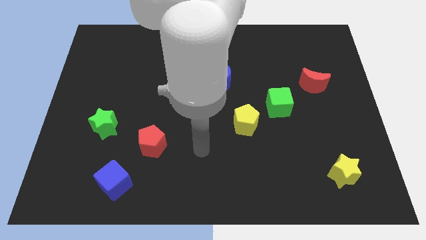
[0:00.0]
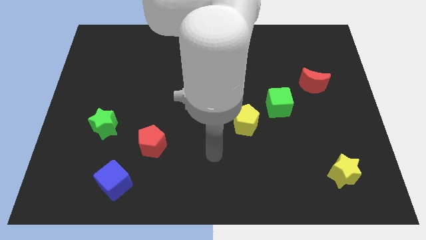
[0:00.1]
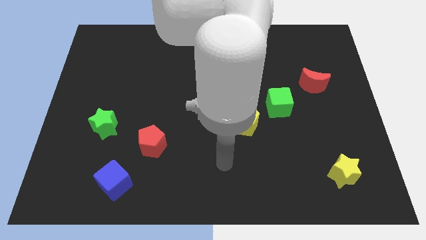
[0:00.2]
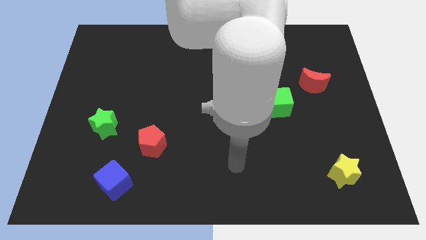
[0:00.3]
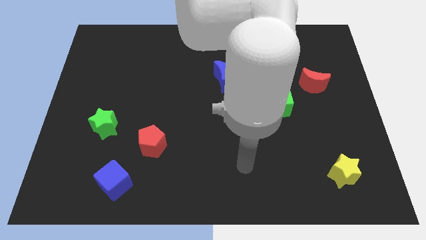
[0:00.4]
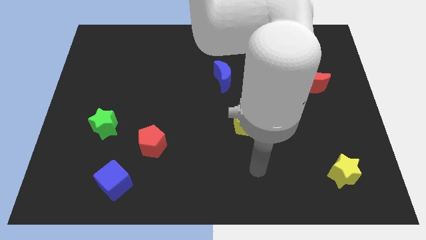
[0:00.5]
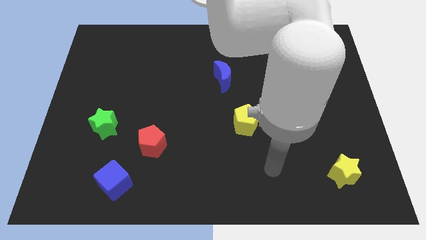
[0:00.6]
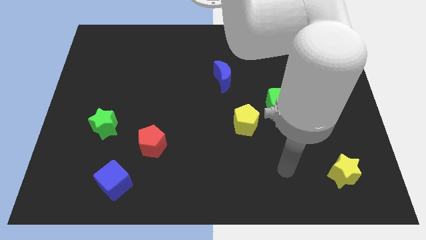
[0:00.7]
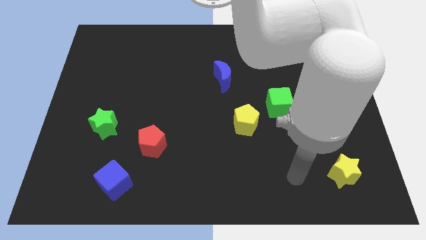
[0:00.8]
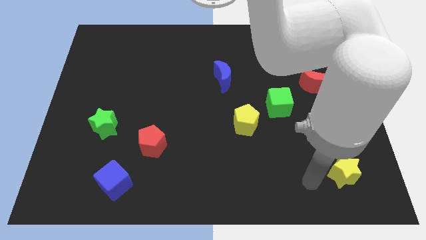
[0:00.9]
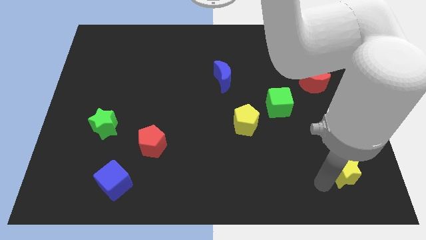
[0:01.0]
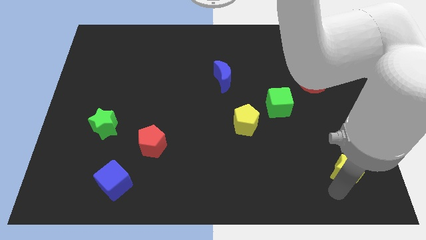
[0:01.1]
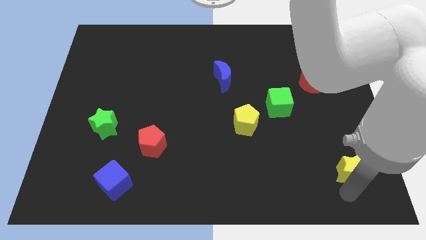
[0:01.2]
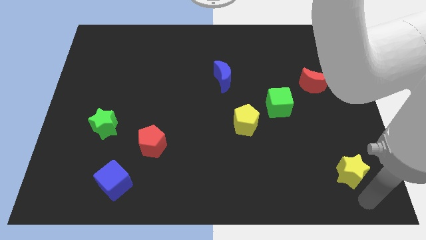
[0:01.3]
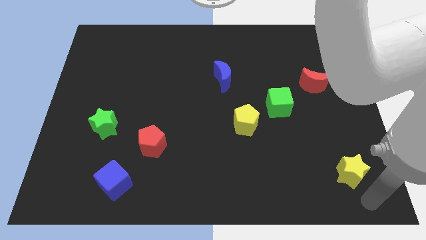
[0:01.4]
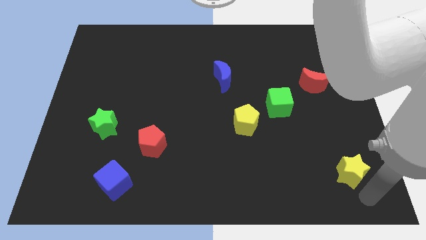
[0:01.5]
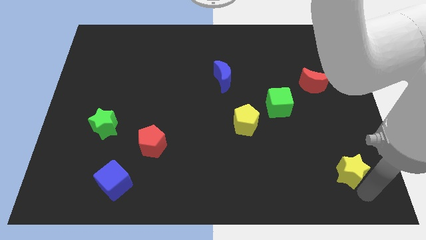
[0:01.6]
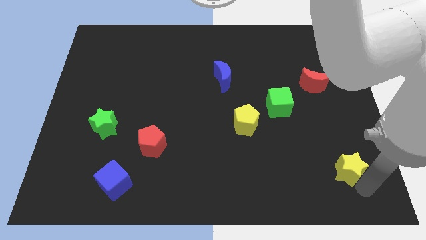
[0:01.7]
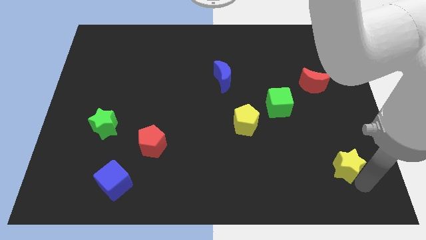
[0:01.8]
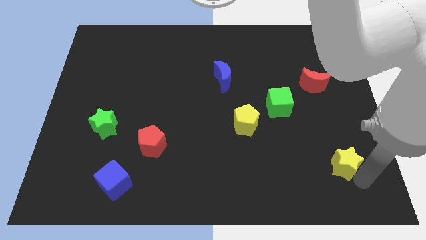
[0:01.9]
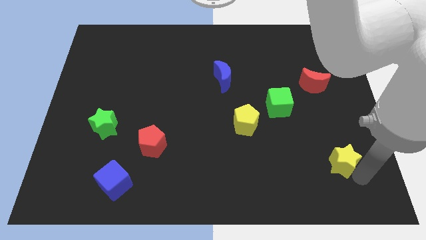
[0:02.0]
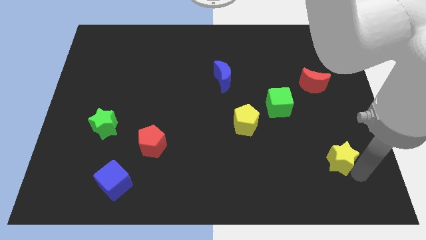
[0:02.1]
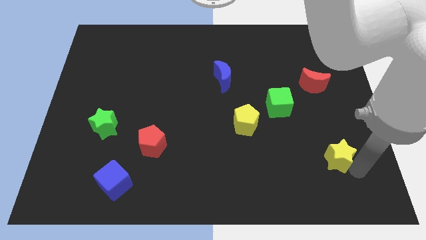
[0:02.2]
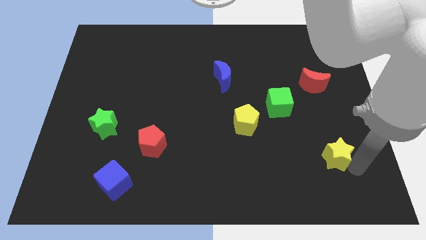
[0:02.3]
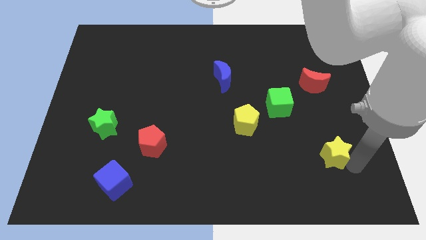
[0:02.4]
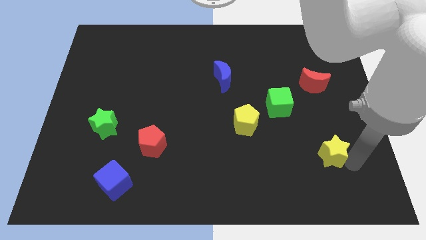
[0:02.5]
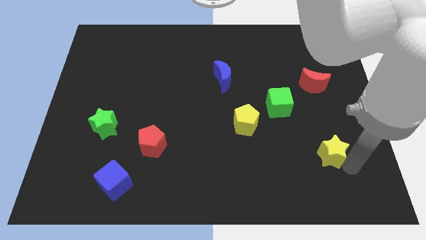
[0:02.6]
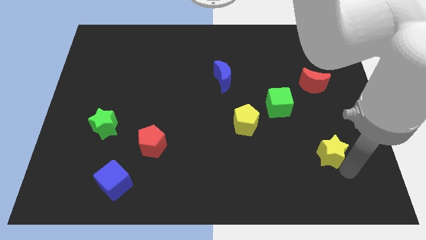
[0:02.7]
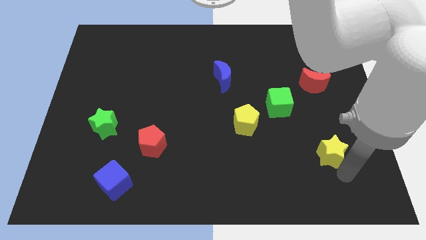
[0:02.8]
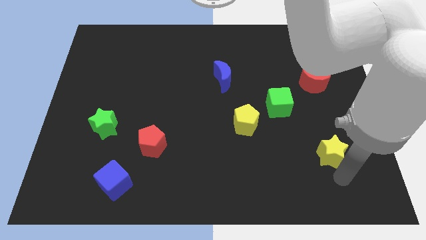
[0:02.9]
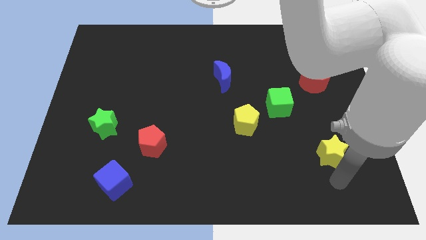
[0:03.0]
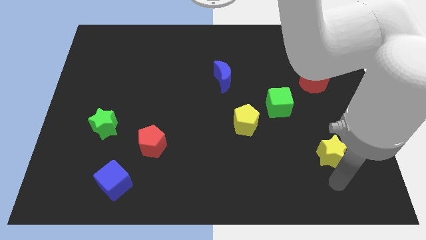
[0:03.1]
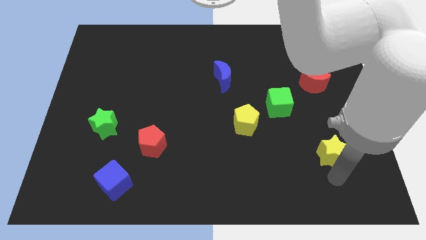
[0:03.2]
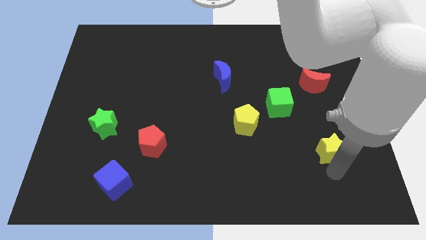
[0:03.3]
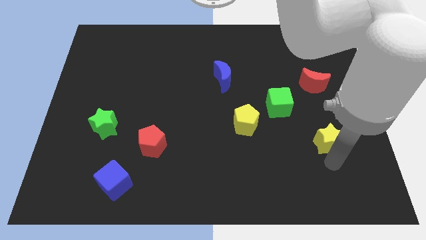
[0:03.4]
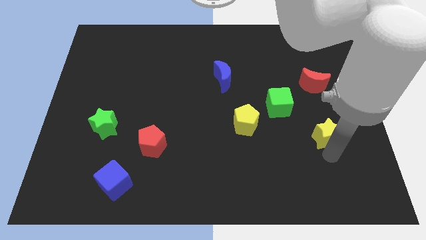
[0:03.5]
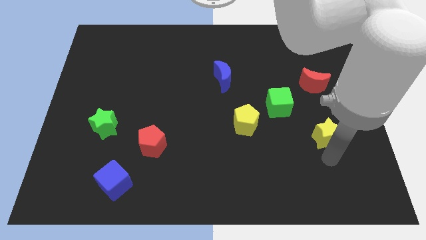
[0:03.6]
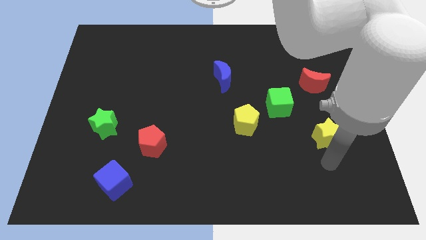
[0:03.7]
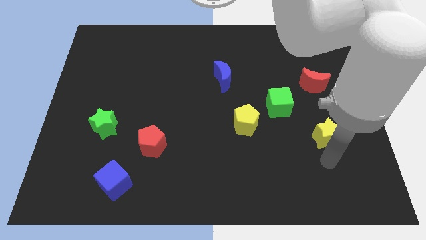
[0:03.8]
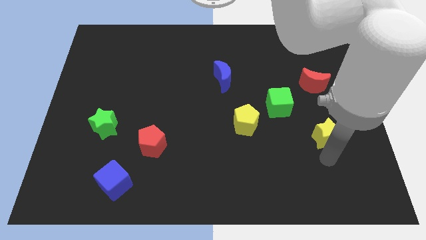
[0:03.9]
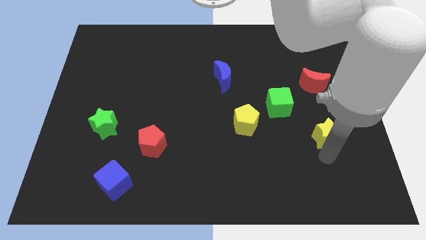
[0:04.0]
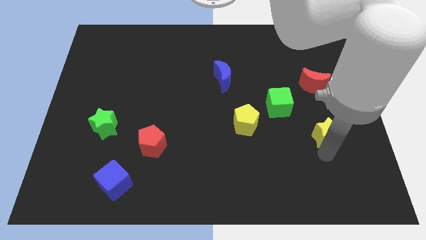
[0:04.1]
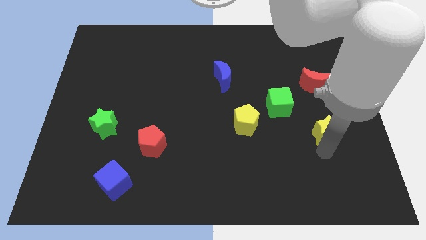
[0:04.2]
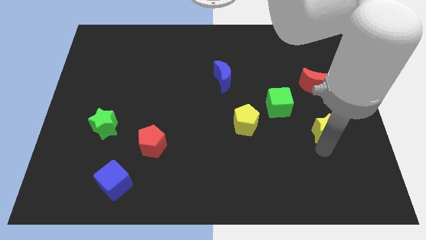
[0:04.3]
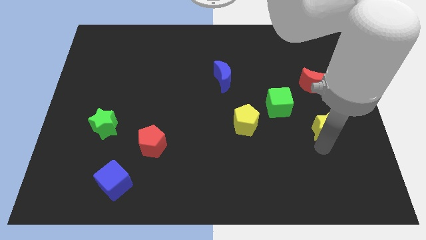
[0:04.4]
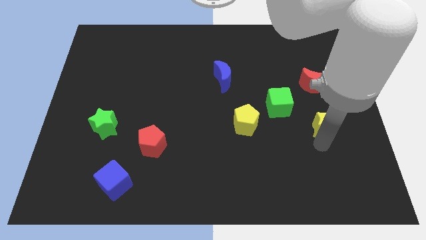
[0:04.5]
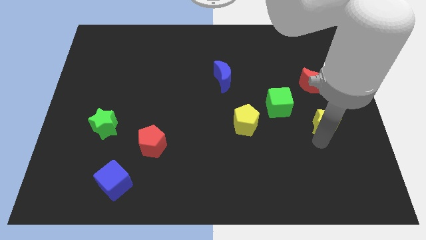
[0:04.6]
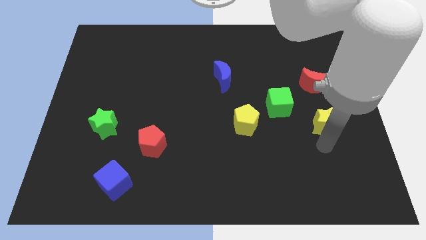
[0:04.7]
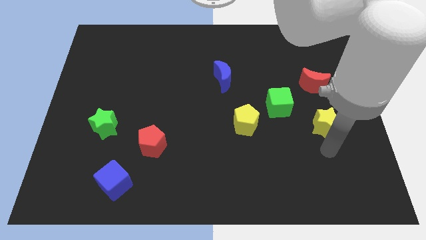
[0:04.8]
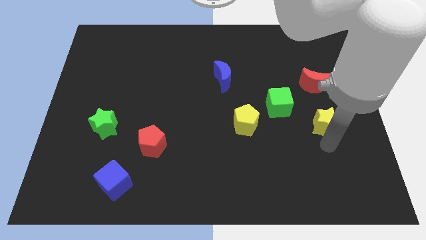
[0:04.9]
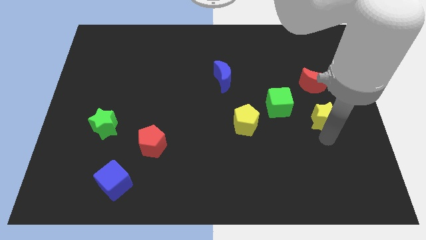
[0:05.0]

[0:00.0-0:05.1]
slide the yellow star just right of the green cube

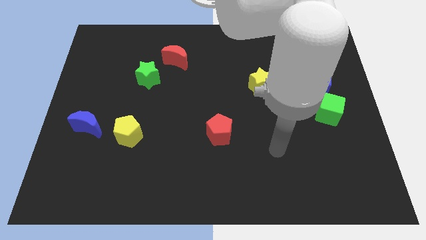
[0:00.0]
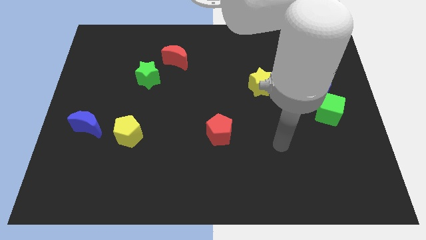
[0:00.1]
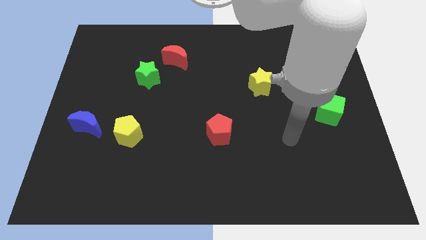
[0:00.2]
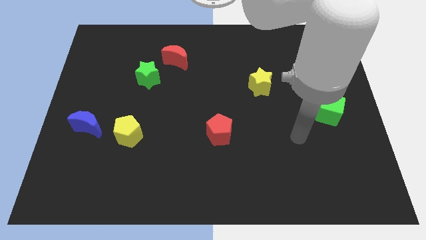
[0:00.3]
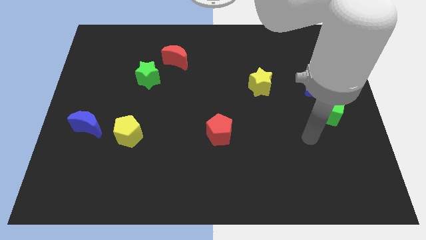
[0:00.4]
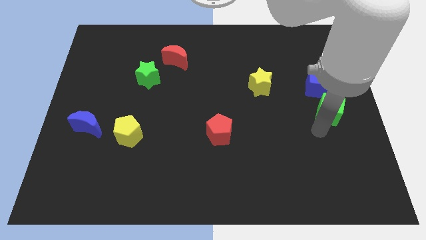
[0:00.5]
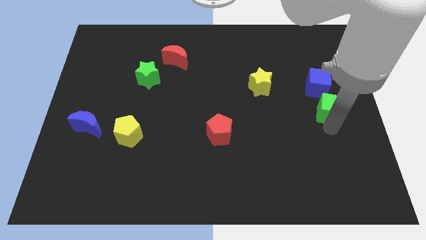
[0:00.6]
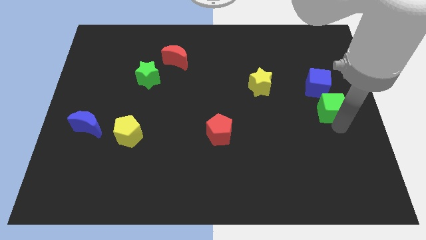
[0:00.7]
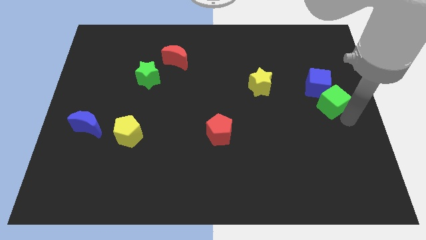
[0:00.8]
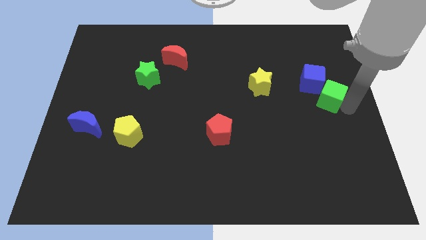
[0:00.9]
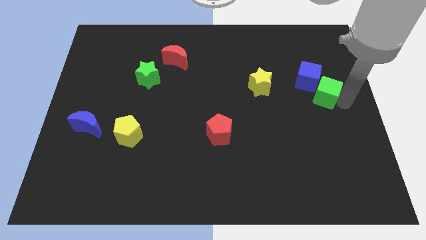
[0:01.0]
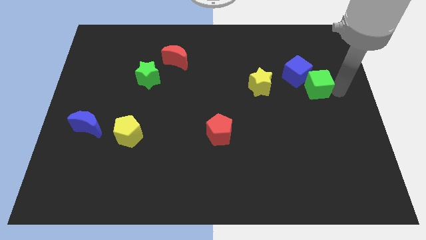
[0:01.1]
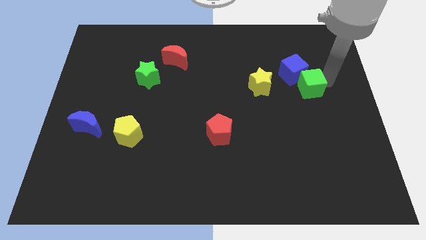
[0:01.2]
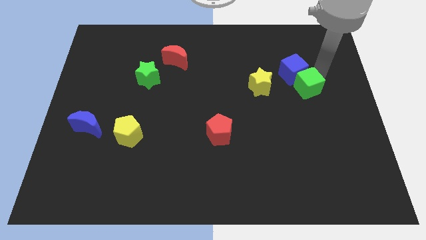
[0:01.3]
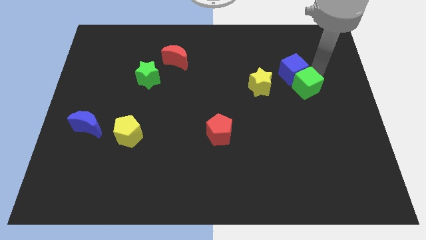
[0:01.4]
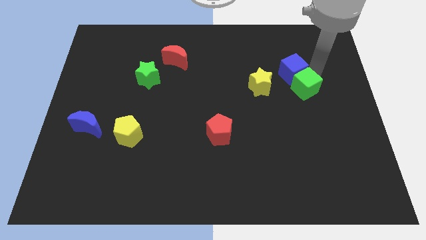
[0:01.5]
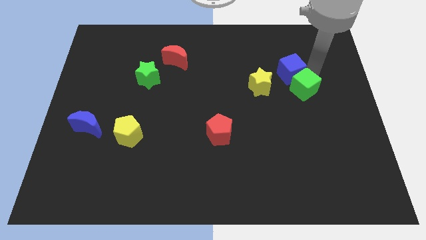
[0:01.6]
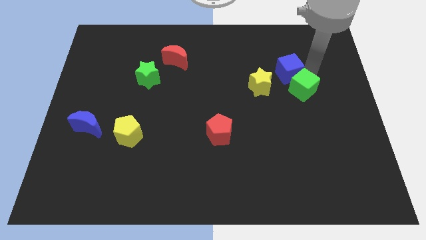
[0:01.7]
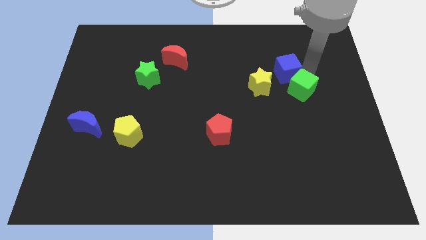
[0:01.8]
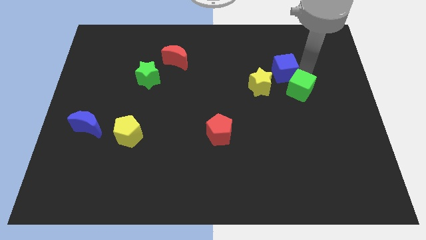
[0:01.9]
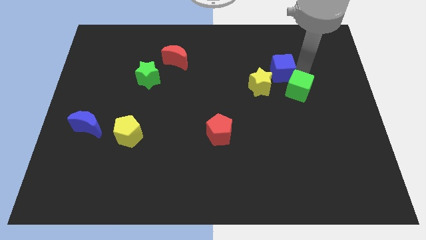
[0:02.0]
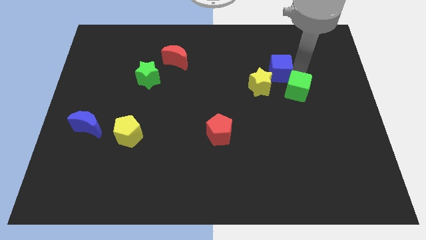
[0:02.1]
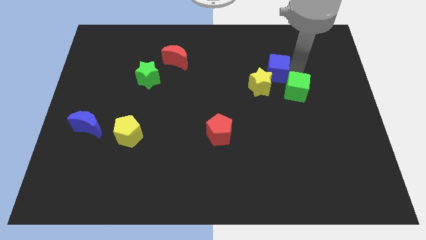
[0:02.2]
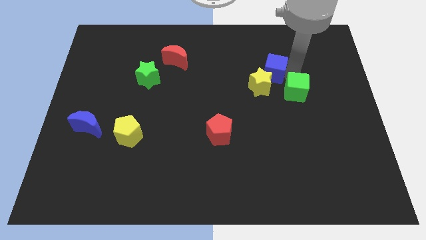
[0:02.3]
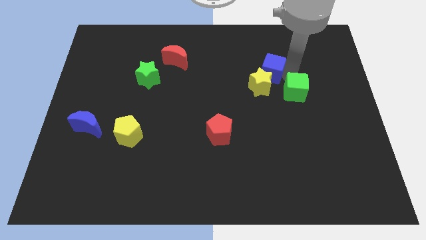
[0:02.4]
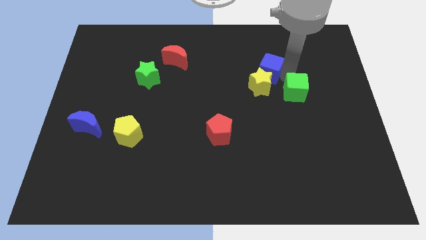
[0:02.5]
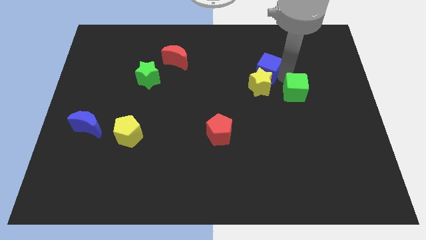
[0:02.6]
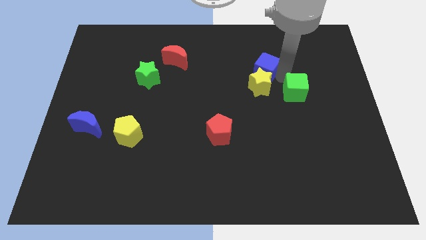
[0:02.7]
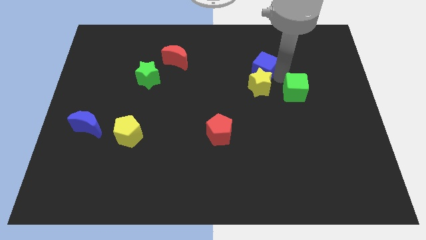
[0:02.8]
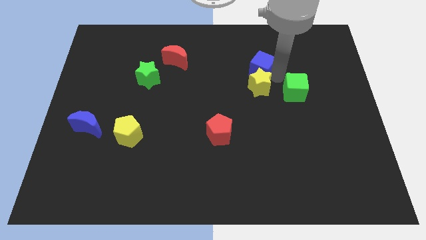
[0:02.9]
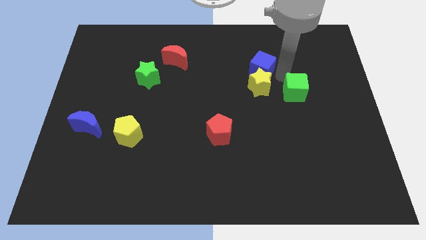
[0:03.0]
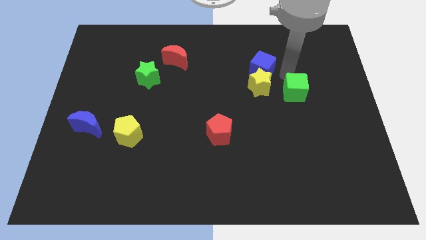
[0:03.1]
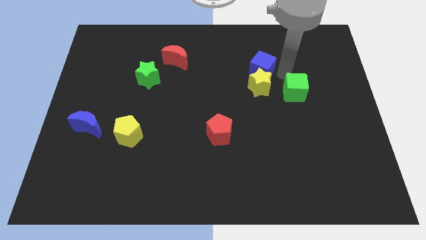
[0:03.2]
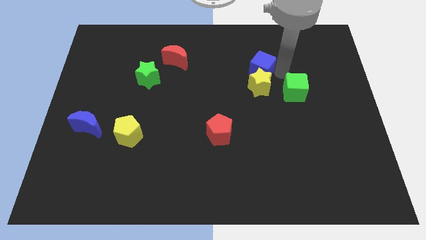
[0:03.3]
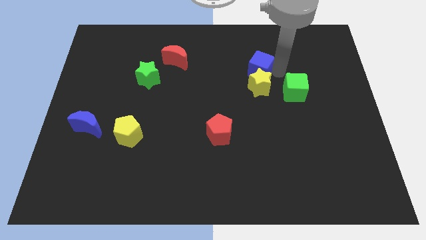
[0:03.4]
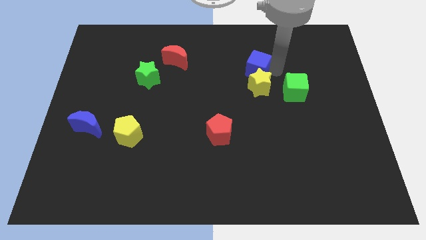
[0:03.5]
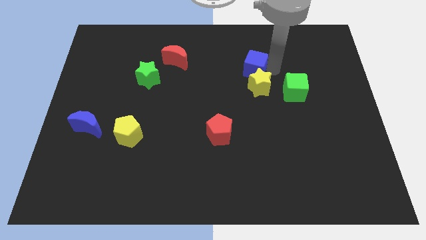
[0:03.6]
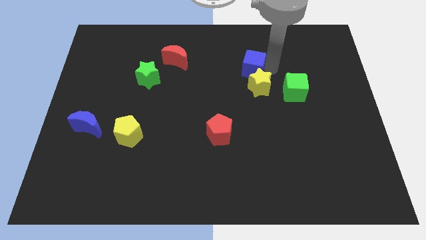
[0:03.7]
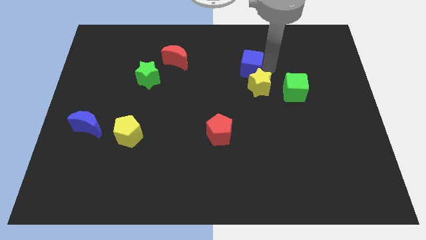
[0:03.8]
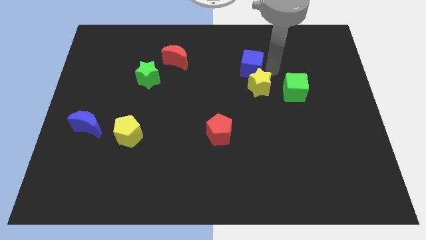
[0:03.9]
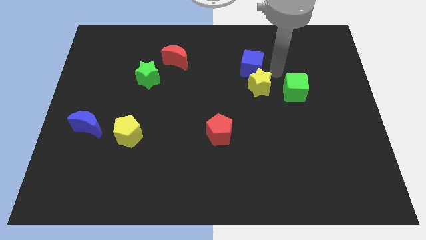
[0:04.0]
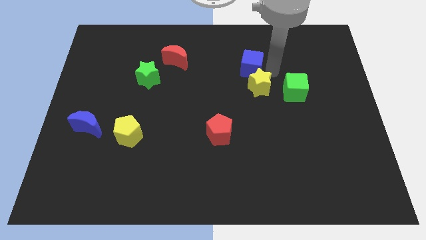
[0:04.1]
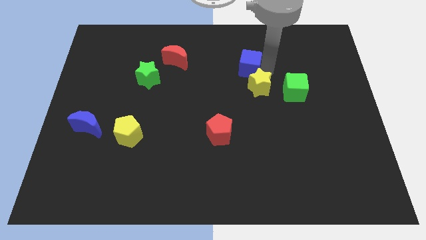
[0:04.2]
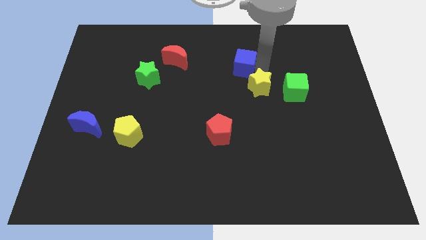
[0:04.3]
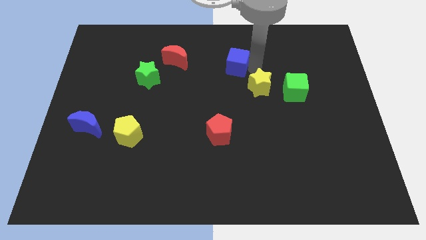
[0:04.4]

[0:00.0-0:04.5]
slide the blue cube right of the red moon
